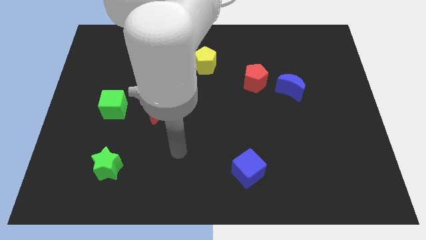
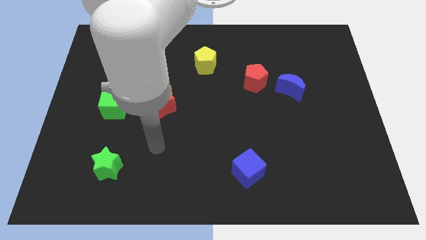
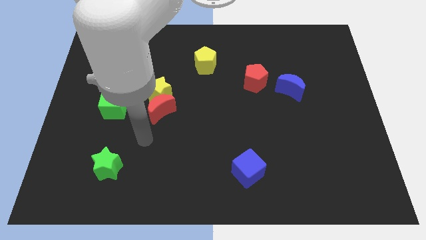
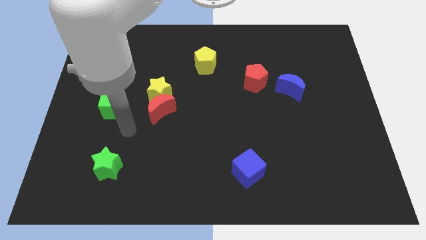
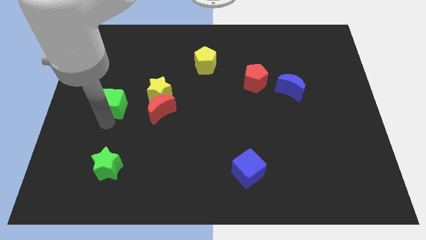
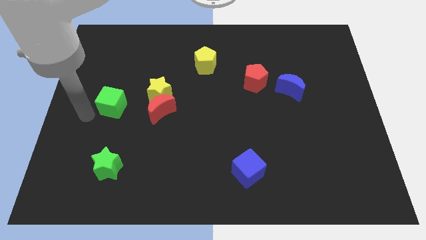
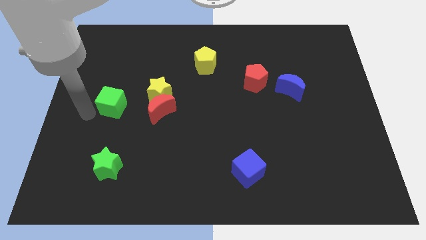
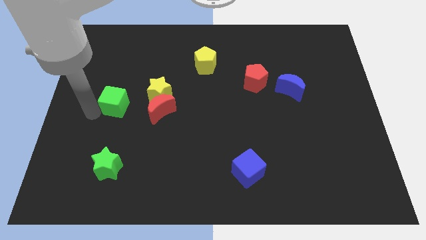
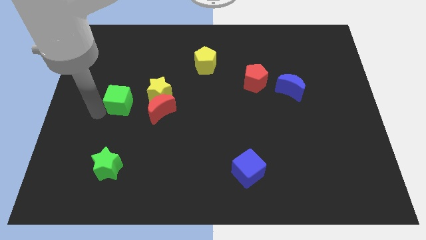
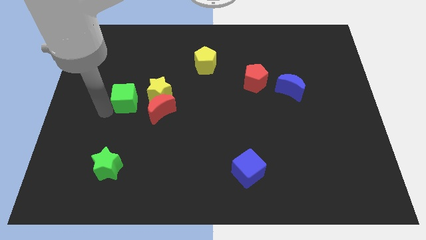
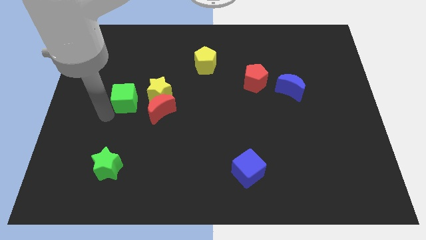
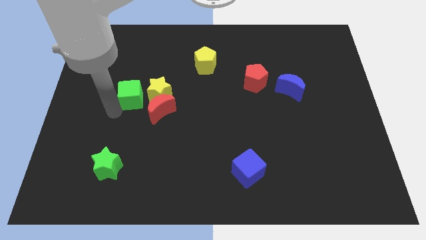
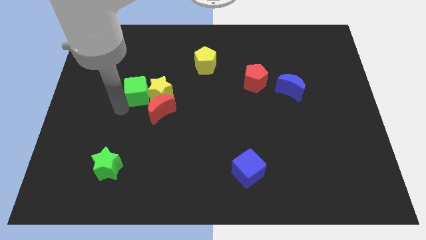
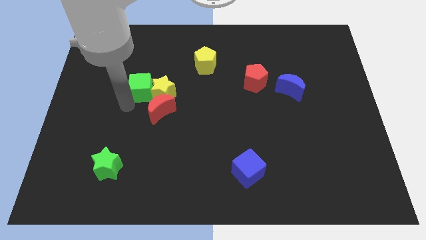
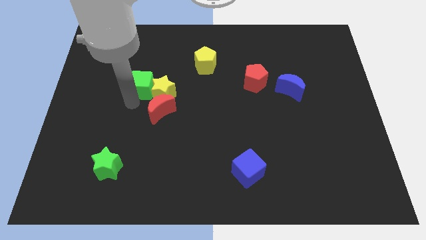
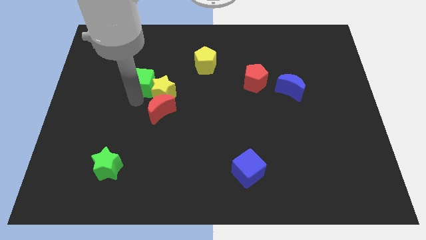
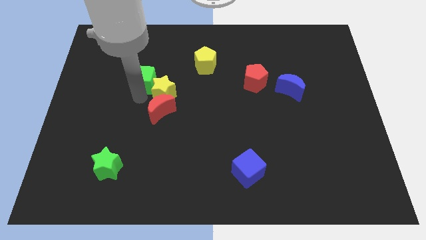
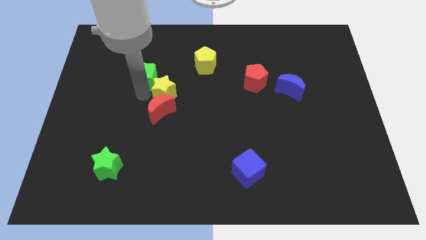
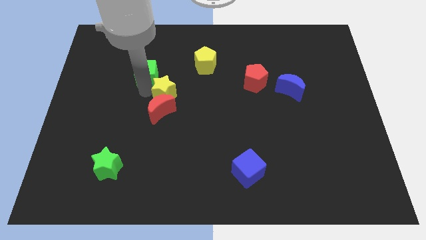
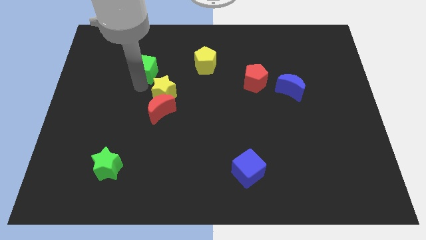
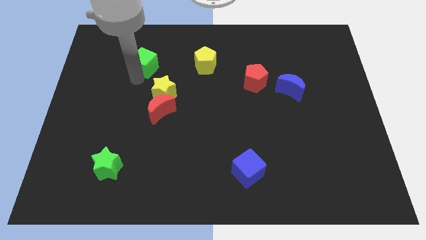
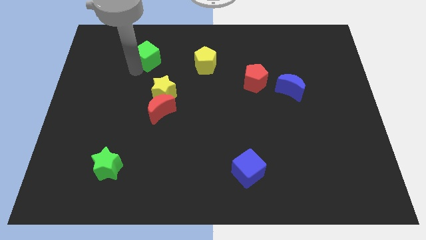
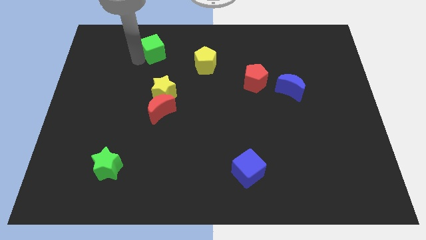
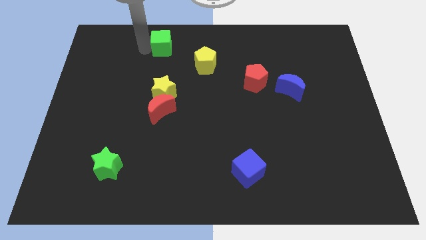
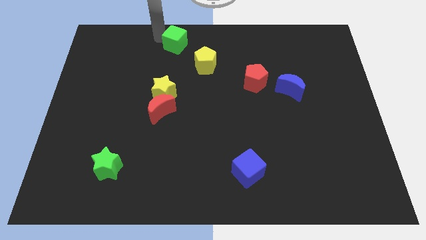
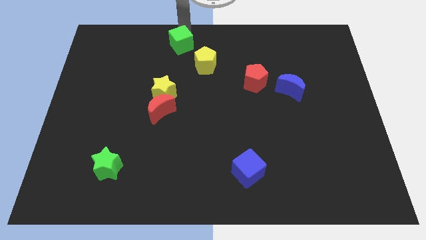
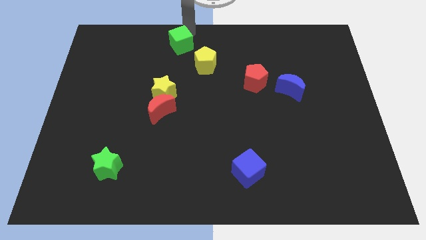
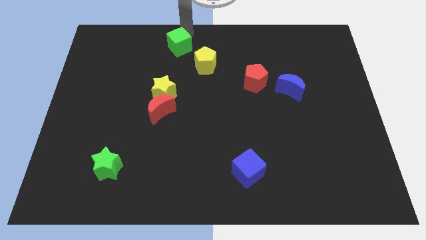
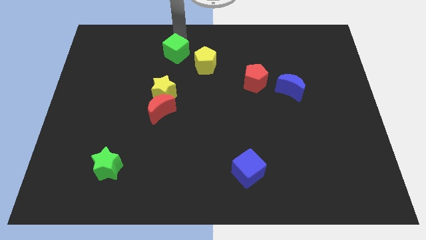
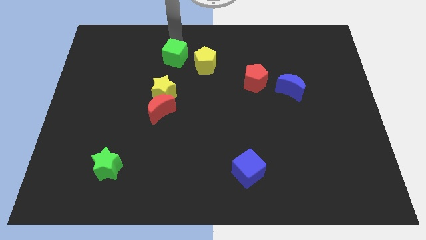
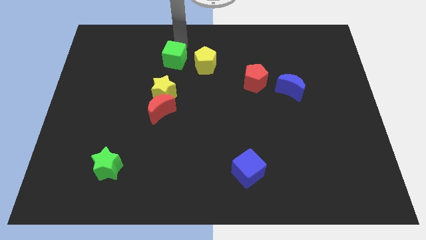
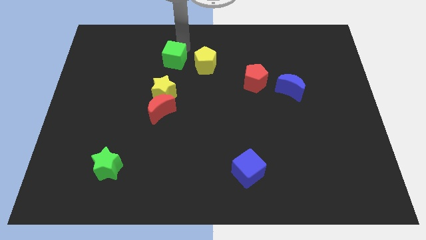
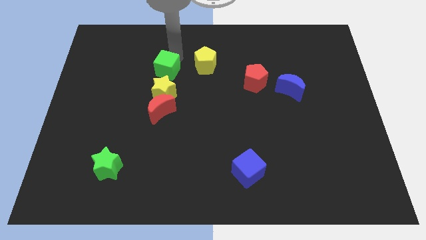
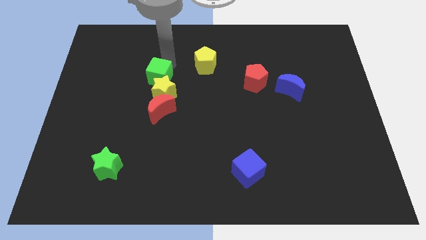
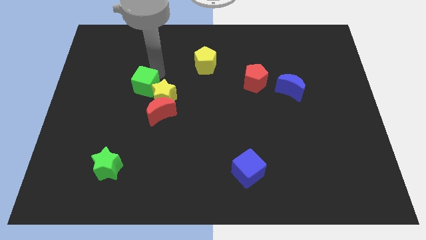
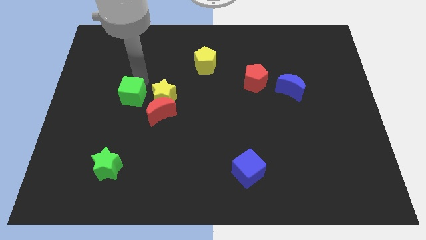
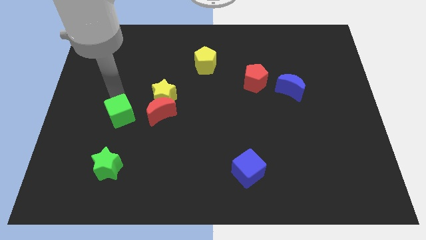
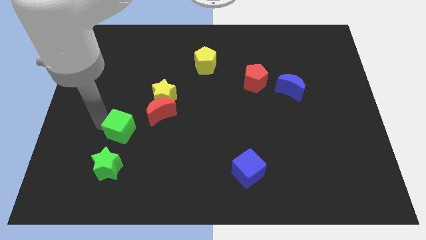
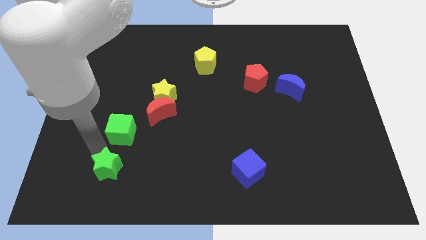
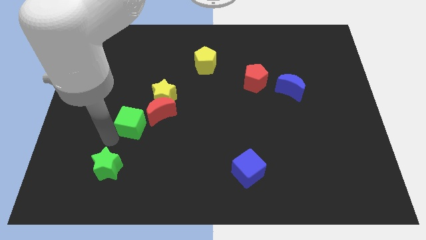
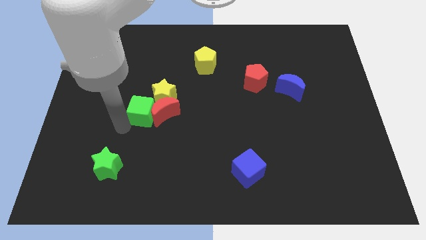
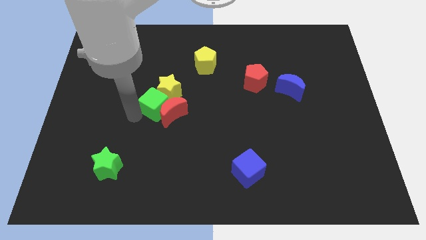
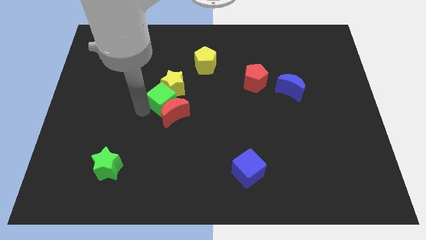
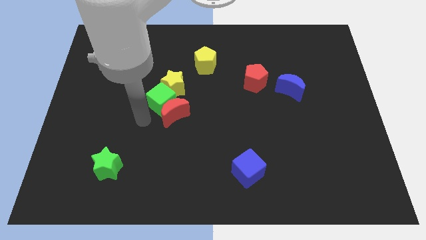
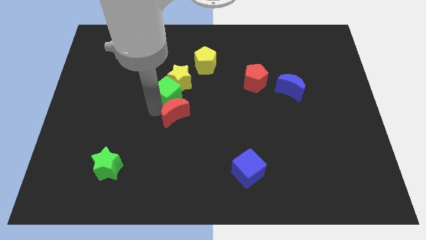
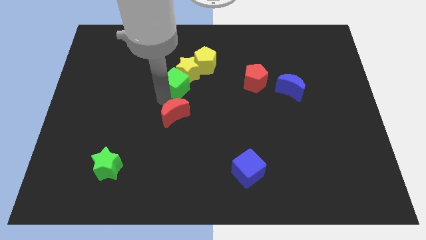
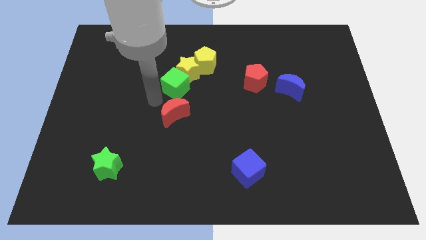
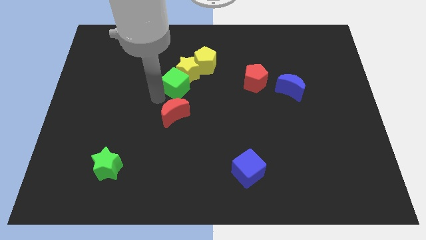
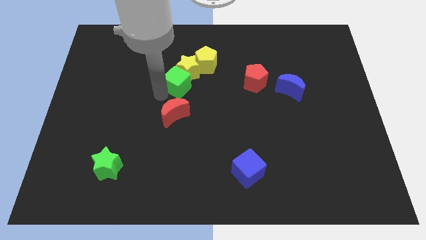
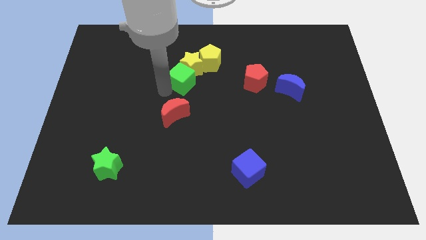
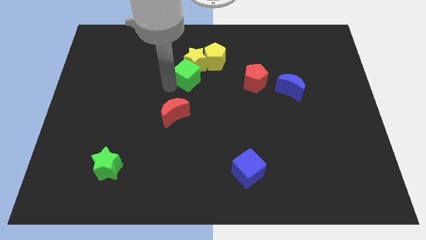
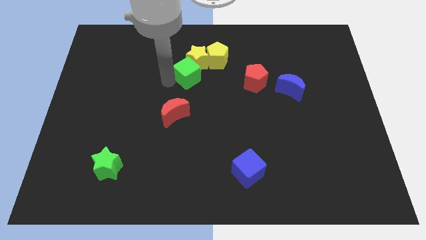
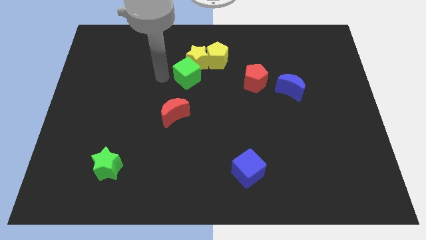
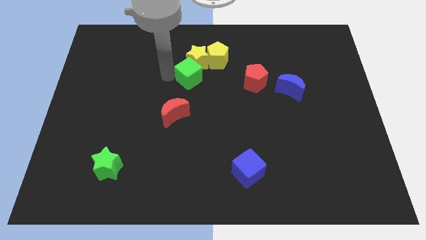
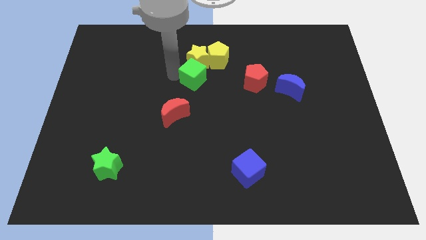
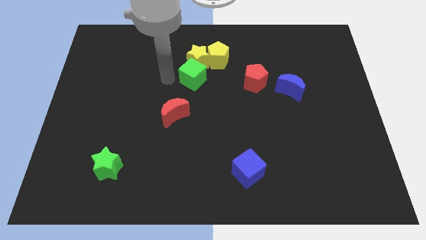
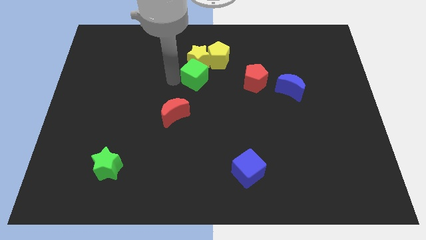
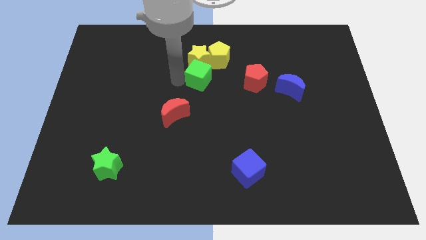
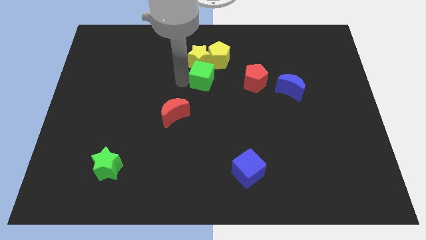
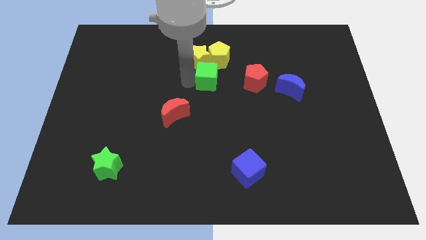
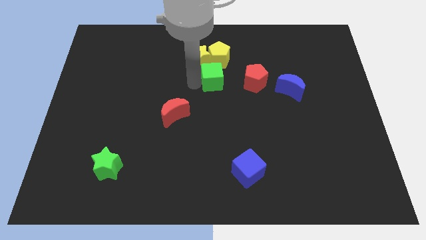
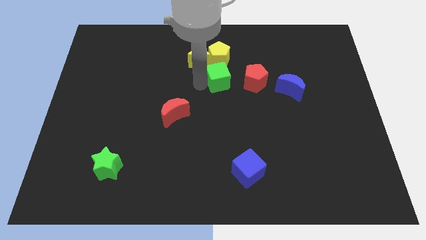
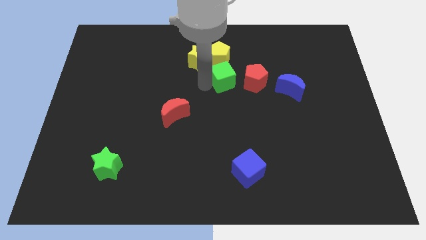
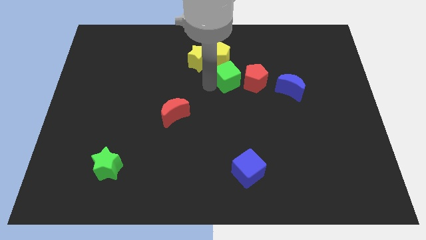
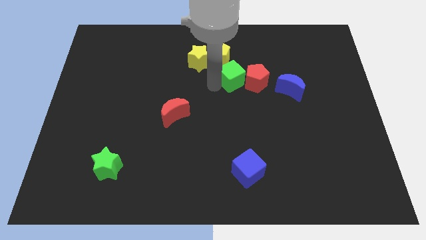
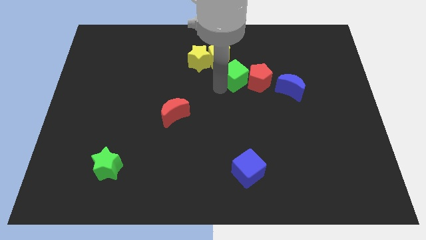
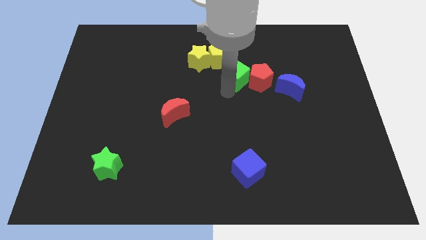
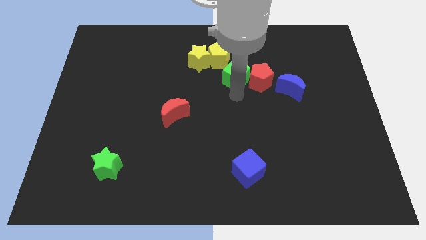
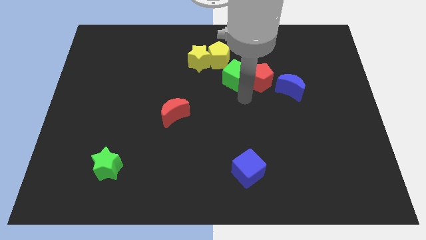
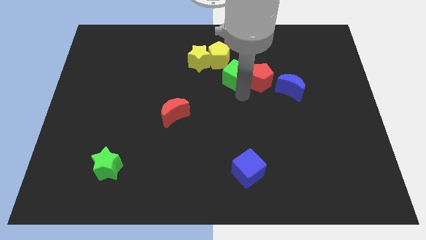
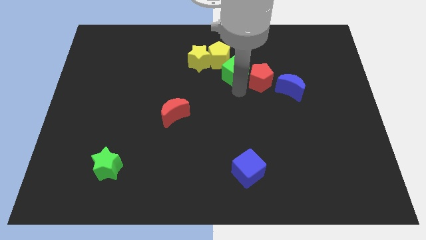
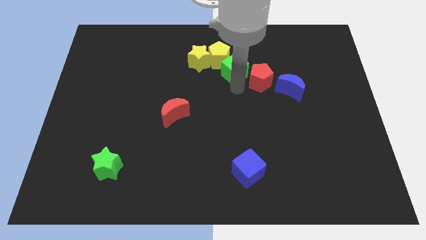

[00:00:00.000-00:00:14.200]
put the green cube right of the yellow pentagon

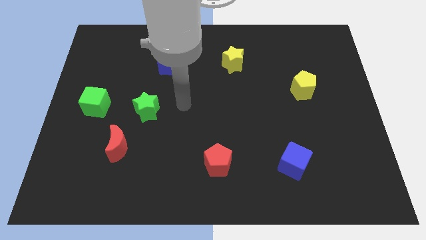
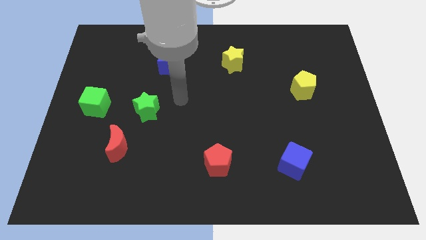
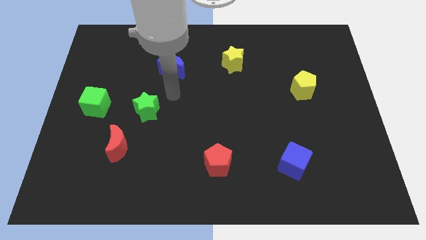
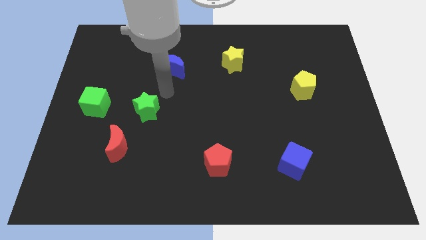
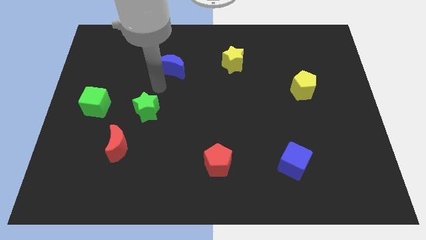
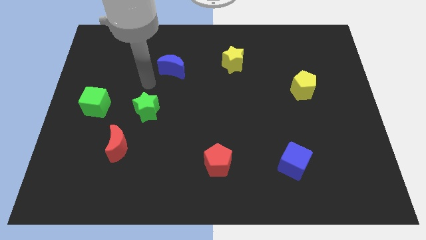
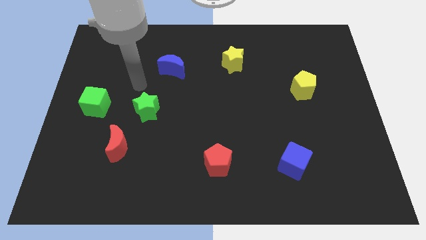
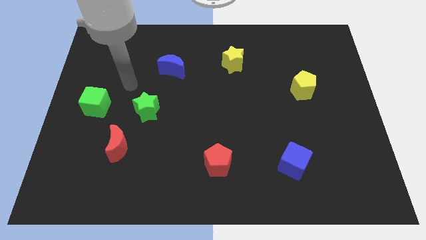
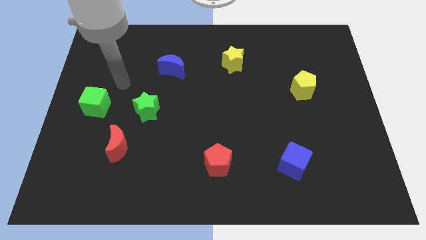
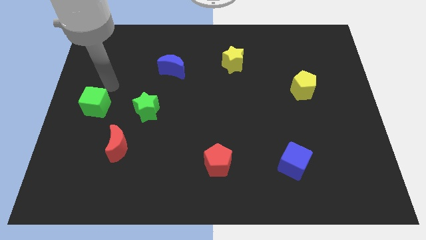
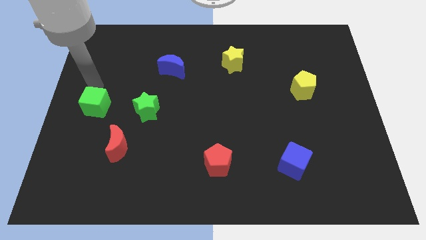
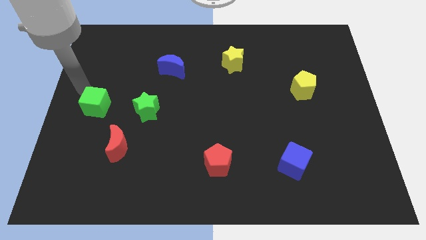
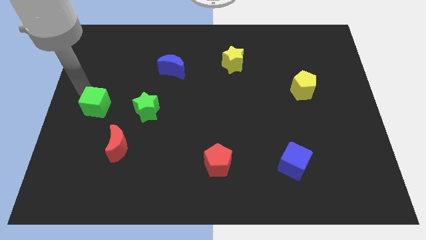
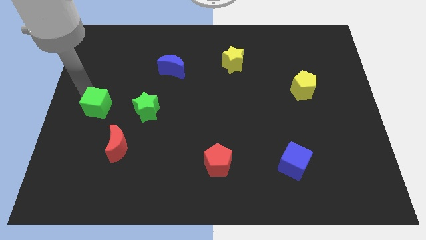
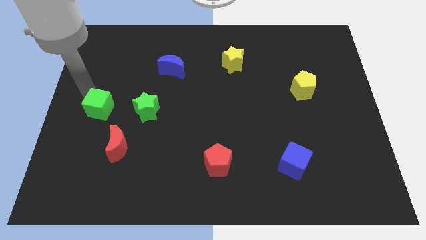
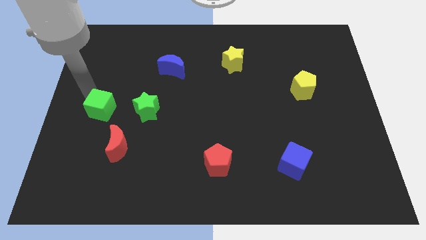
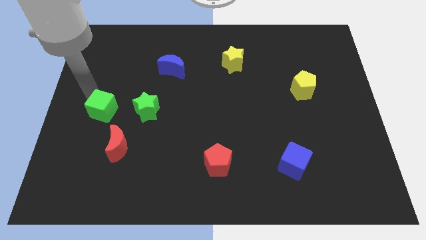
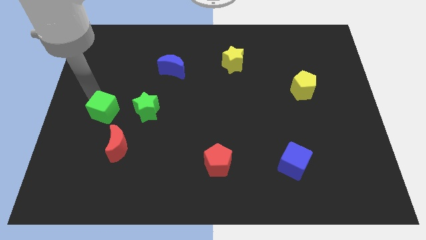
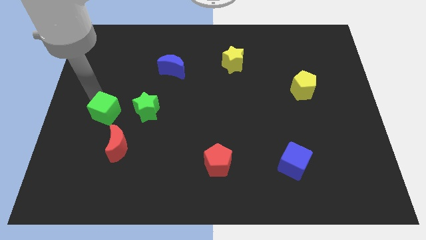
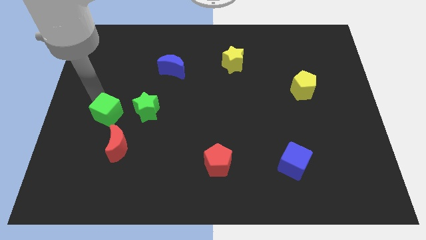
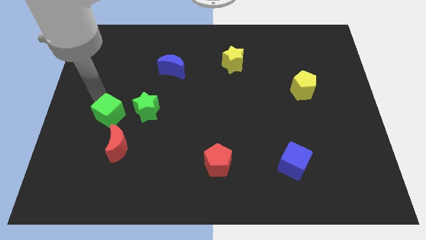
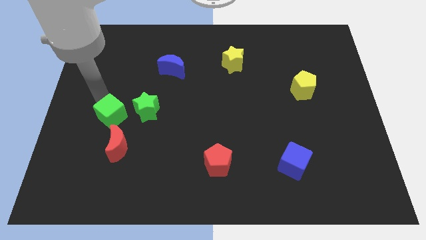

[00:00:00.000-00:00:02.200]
push the green cube diagonally down and to the left of the green star
